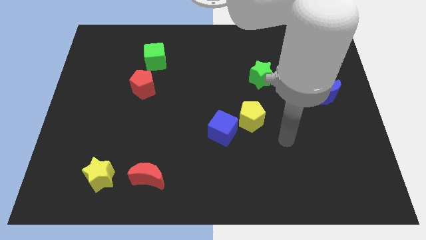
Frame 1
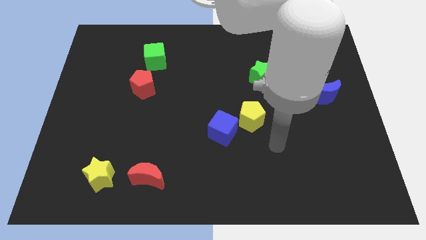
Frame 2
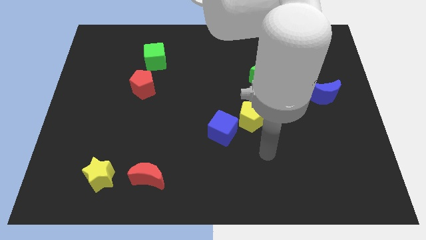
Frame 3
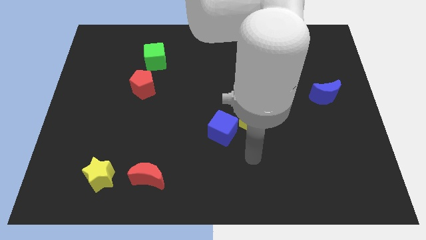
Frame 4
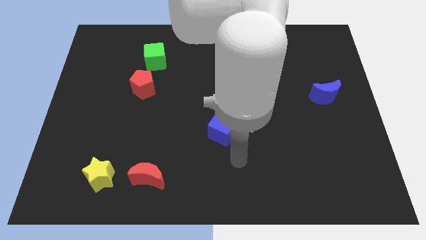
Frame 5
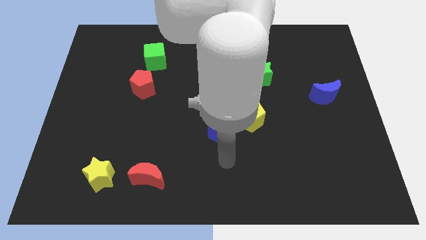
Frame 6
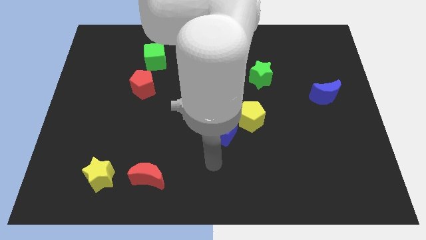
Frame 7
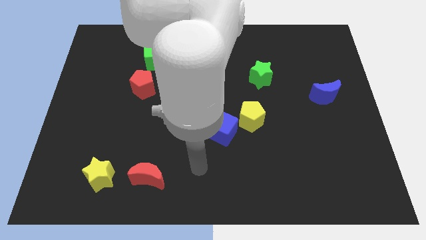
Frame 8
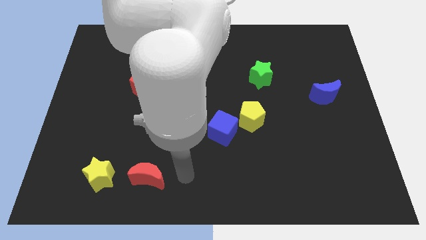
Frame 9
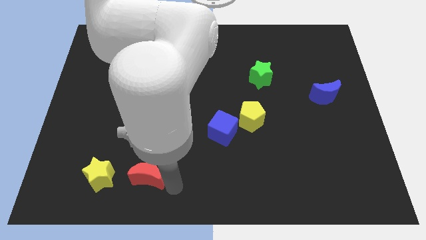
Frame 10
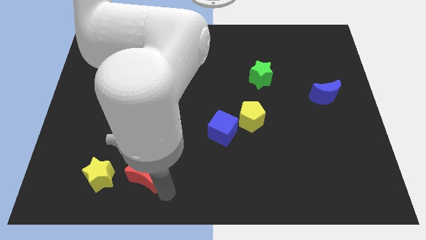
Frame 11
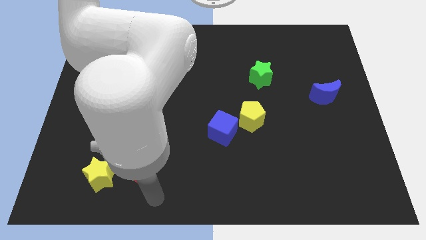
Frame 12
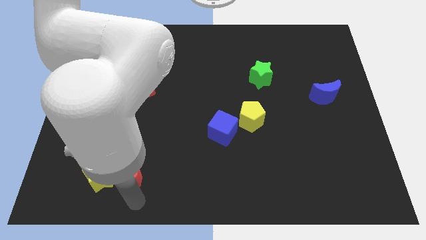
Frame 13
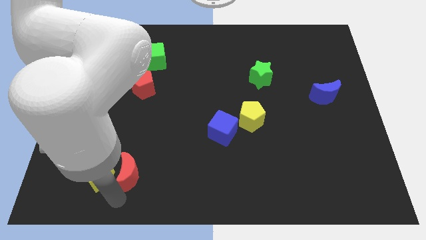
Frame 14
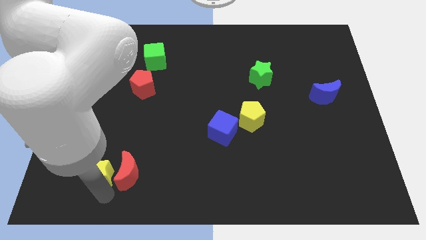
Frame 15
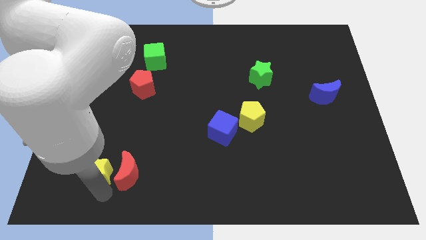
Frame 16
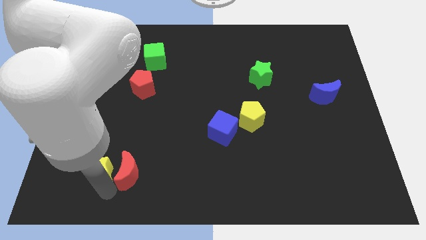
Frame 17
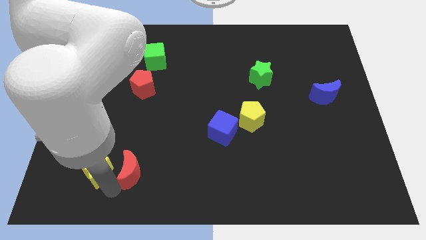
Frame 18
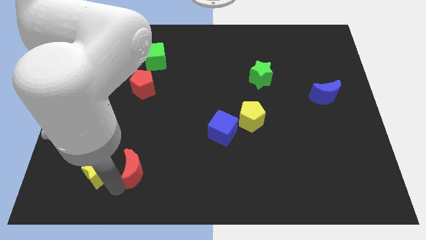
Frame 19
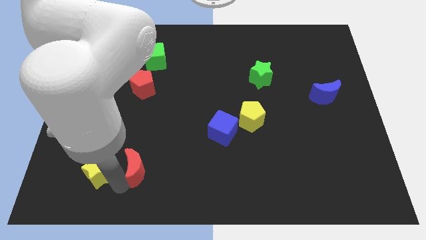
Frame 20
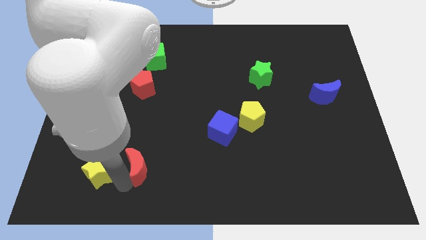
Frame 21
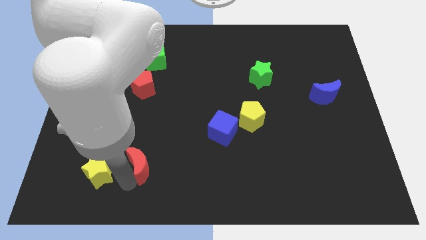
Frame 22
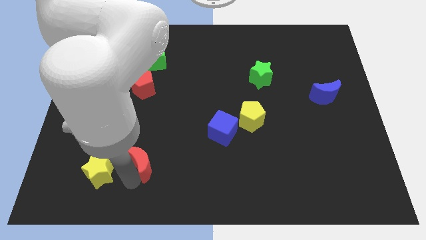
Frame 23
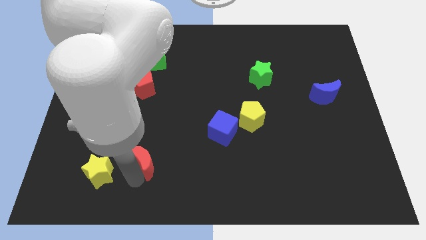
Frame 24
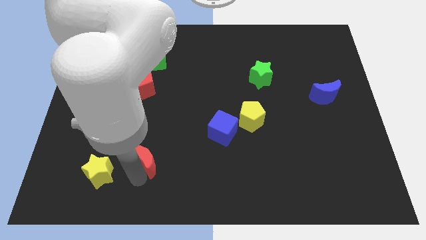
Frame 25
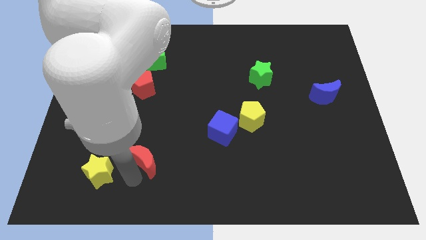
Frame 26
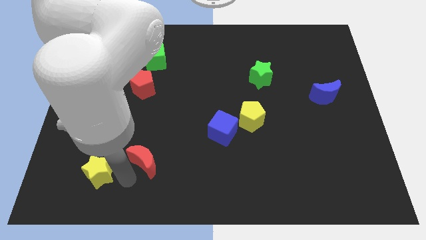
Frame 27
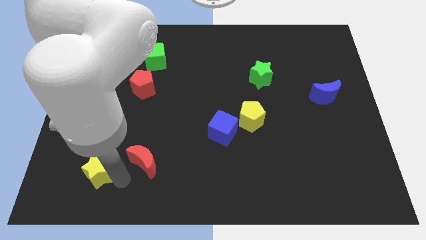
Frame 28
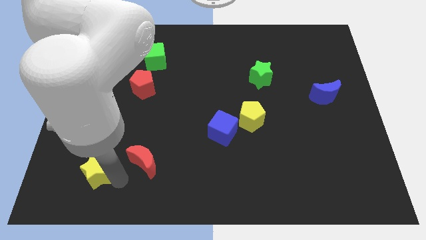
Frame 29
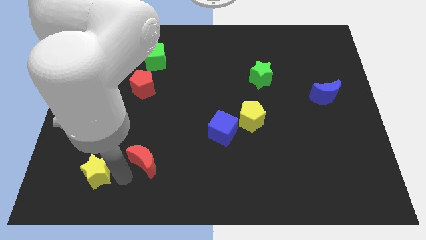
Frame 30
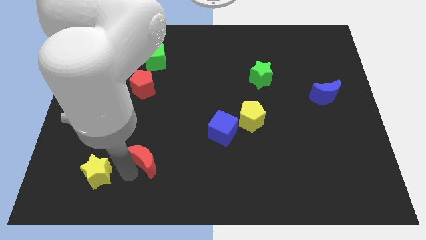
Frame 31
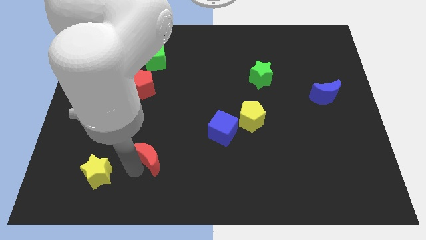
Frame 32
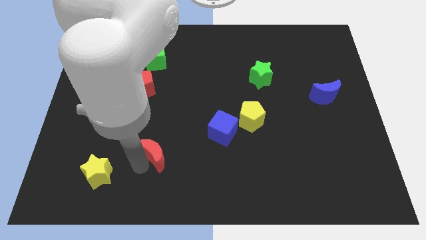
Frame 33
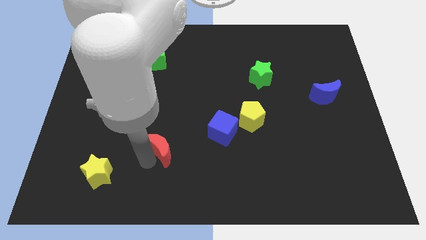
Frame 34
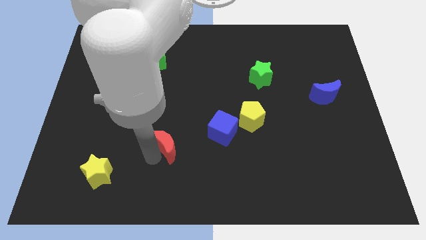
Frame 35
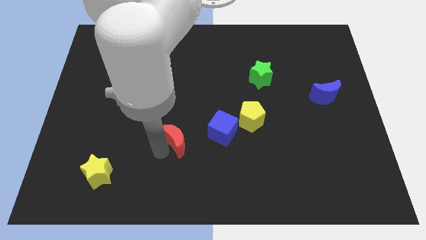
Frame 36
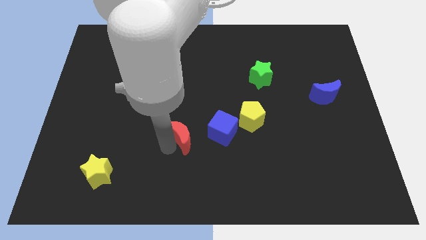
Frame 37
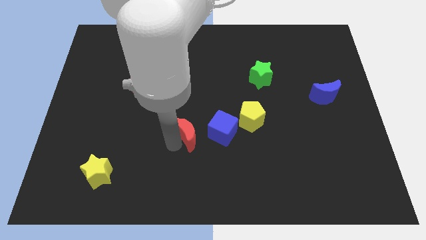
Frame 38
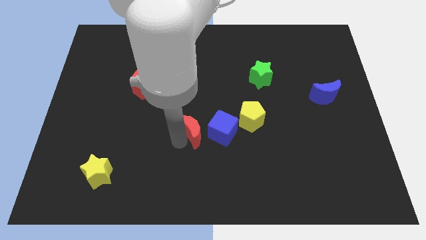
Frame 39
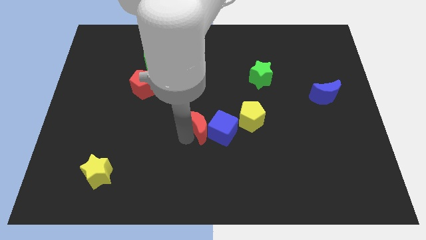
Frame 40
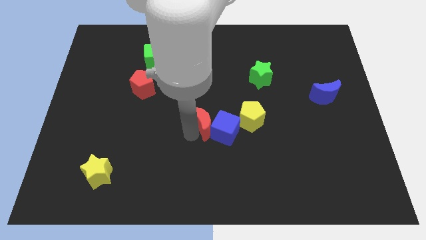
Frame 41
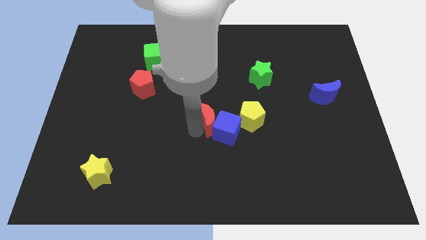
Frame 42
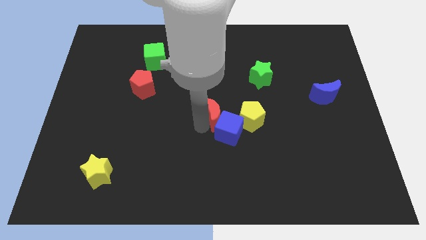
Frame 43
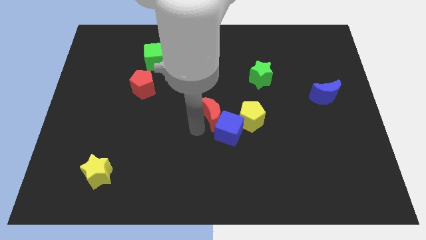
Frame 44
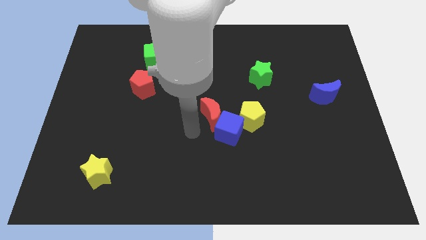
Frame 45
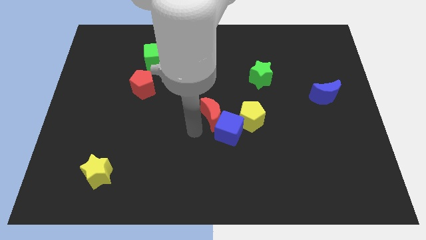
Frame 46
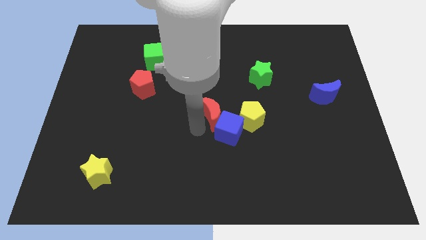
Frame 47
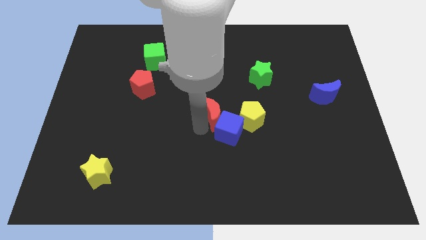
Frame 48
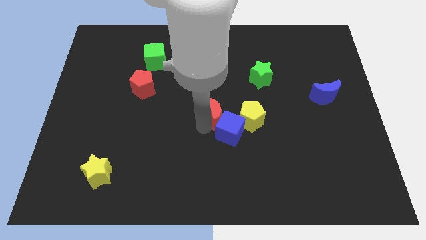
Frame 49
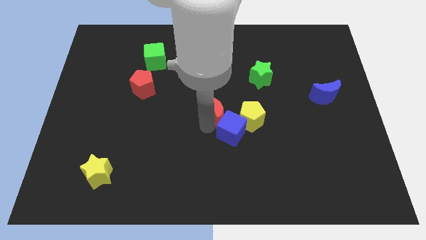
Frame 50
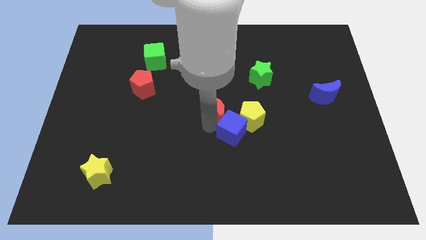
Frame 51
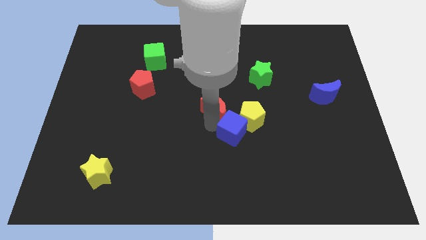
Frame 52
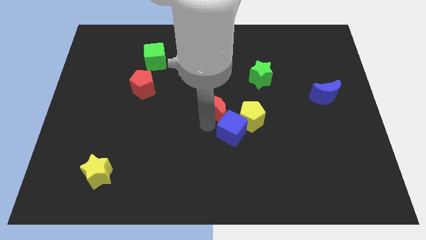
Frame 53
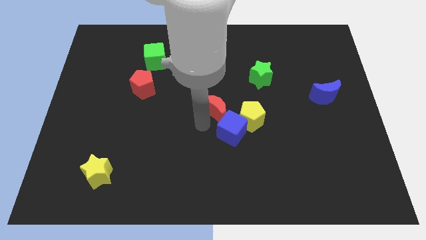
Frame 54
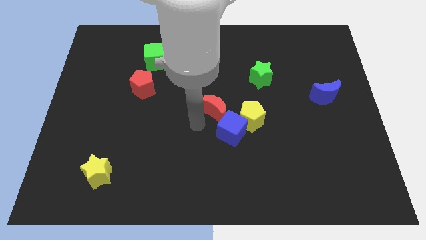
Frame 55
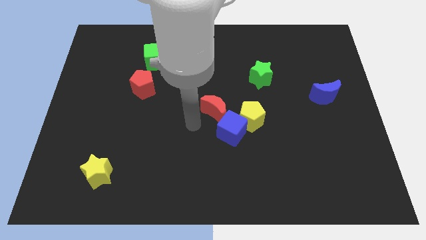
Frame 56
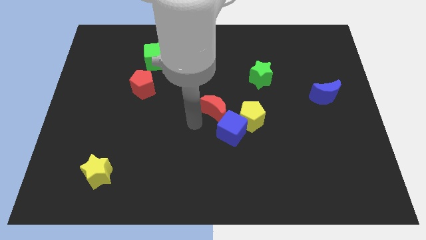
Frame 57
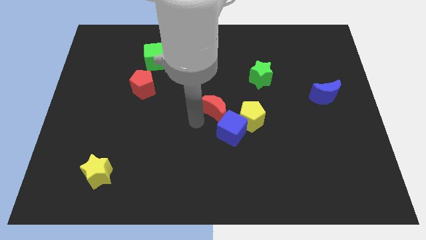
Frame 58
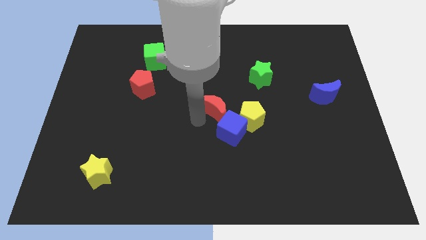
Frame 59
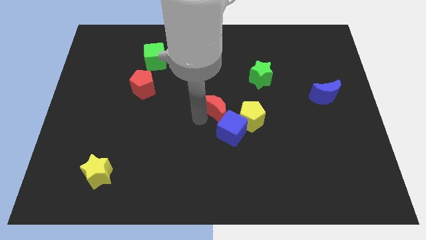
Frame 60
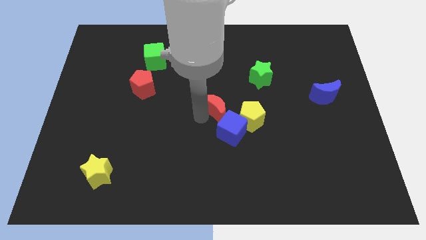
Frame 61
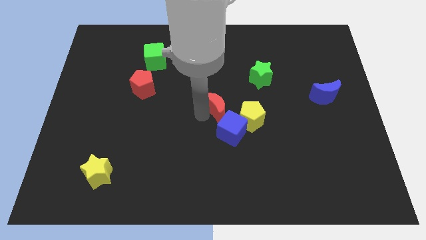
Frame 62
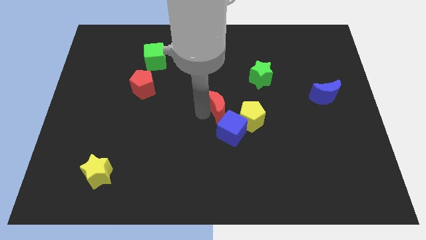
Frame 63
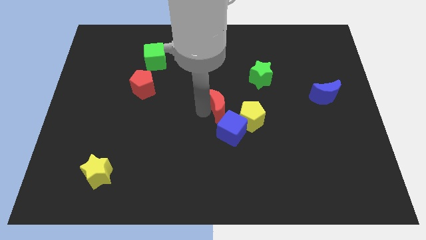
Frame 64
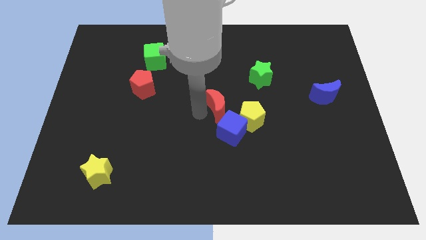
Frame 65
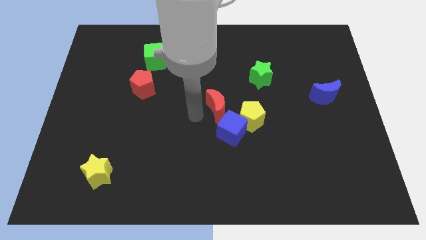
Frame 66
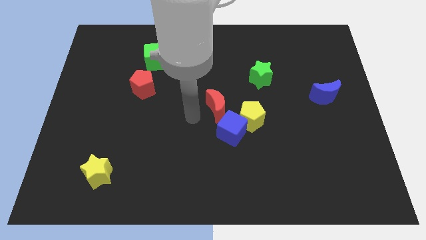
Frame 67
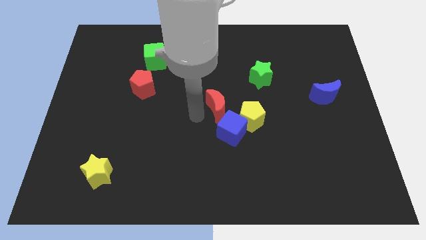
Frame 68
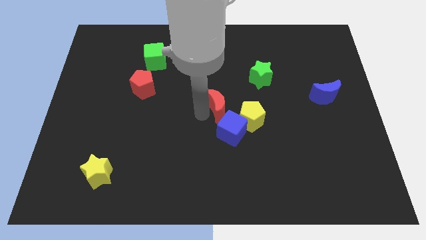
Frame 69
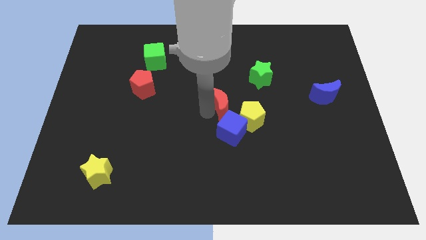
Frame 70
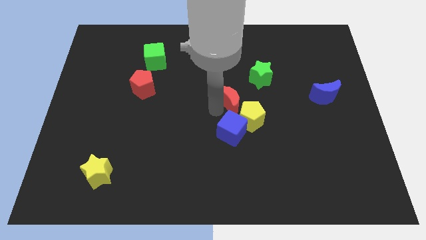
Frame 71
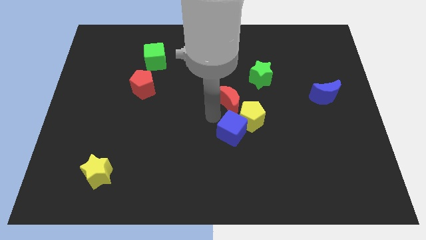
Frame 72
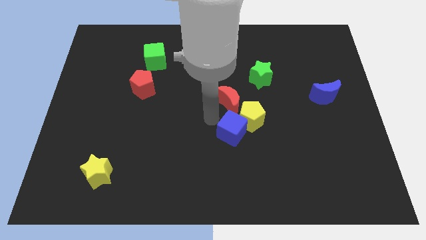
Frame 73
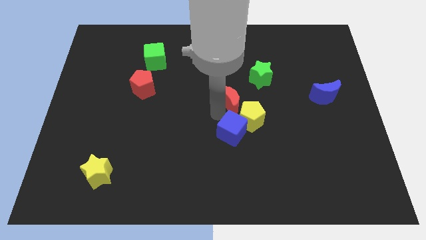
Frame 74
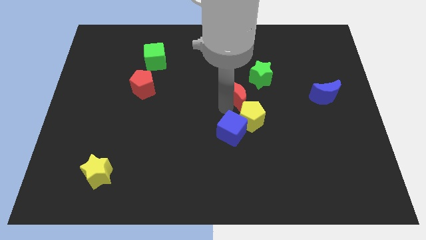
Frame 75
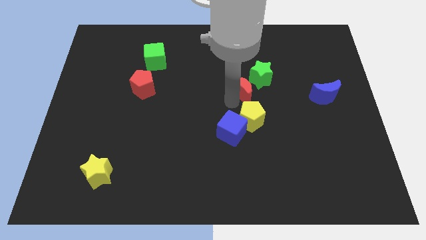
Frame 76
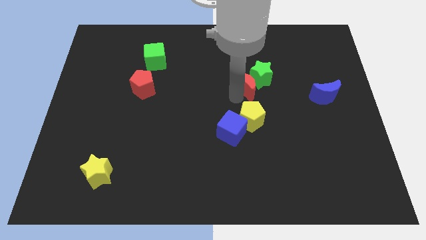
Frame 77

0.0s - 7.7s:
move the red moon to the green star

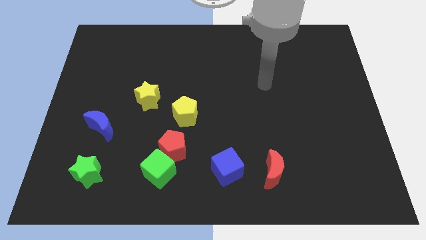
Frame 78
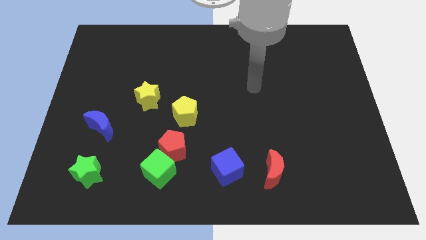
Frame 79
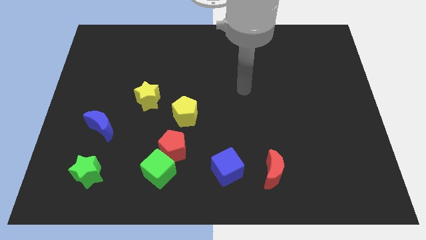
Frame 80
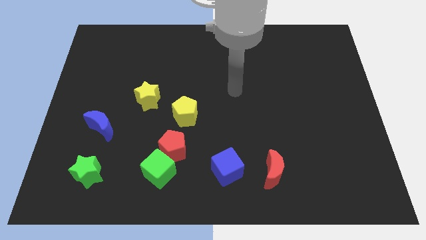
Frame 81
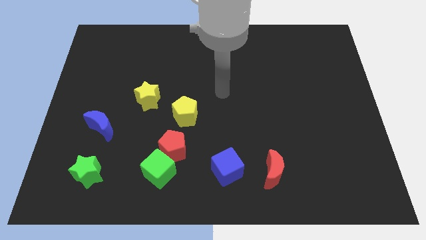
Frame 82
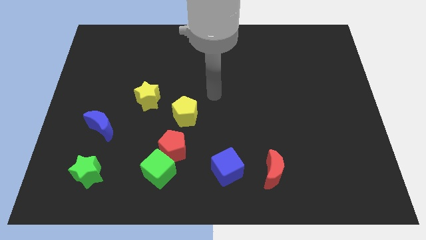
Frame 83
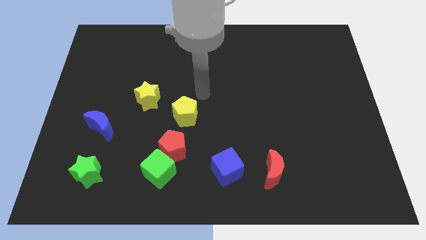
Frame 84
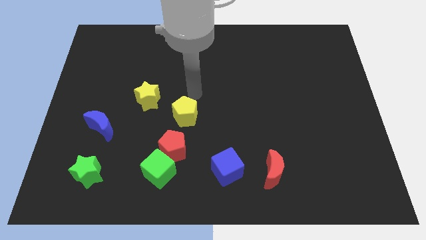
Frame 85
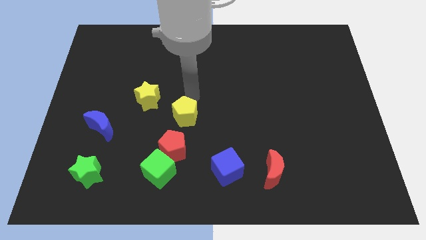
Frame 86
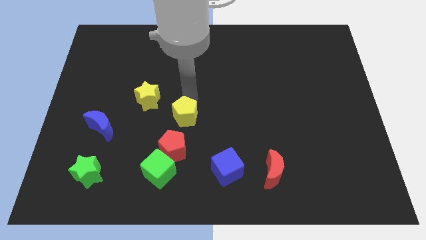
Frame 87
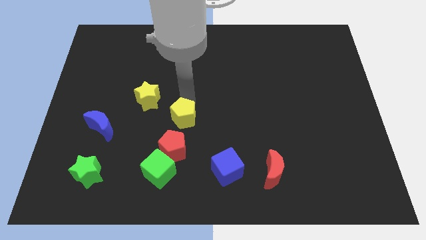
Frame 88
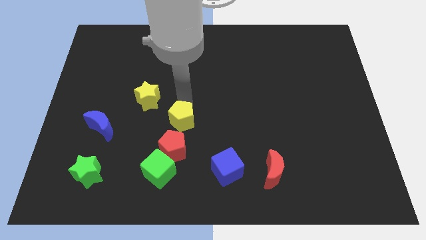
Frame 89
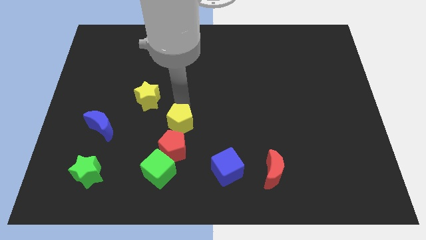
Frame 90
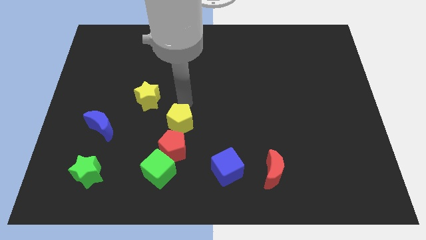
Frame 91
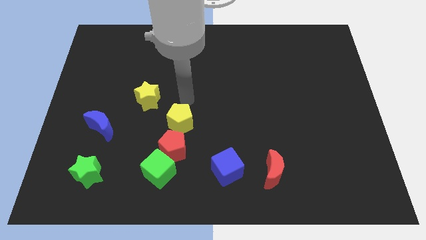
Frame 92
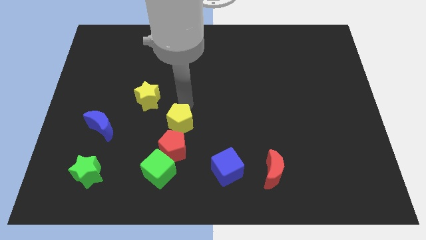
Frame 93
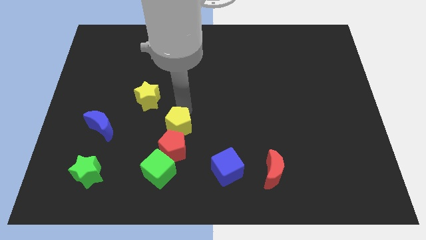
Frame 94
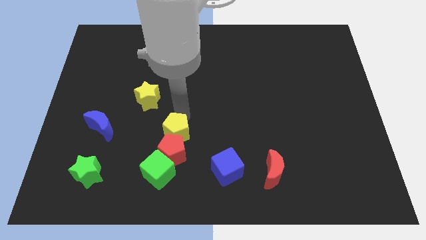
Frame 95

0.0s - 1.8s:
push the yellow pentagon next to the red pentagon
